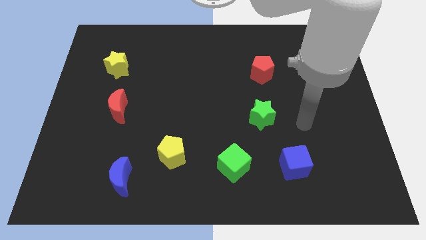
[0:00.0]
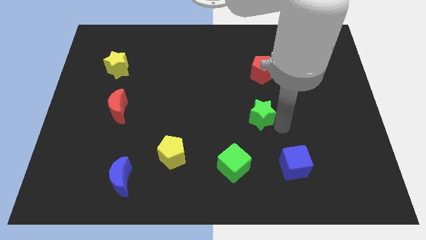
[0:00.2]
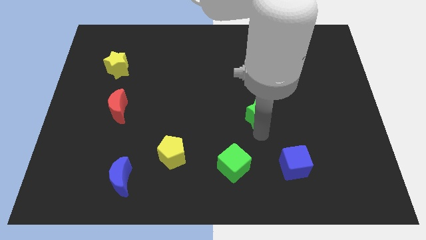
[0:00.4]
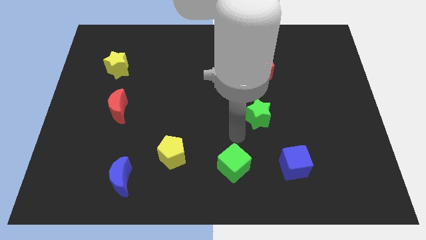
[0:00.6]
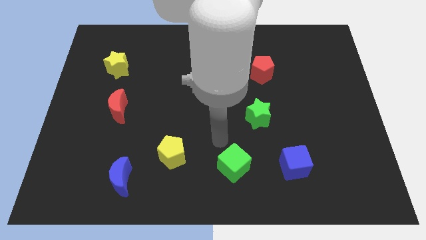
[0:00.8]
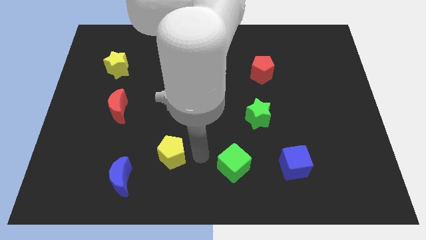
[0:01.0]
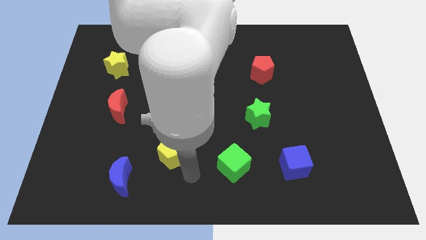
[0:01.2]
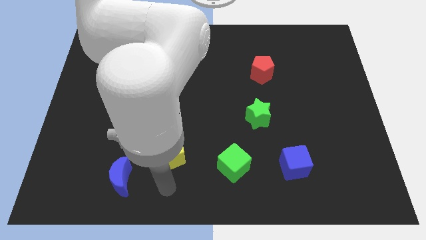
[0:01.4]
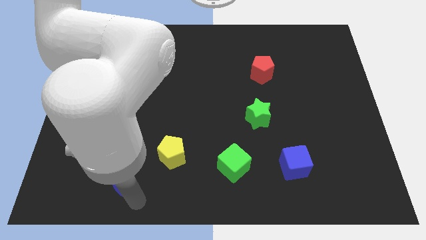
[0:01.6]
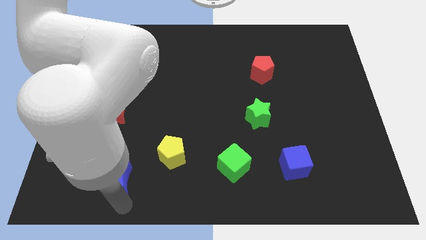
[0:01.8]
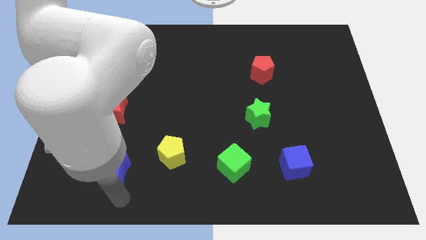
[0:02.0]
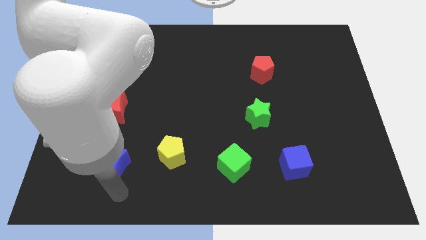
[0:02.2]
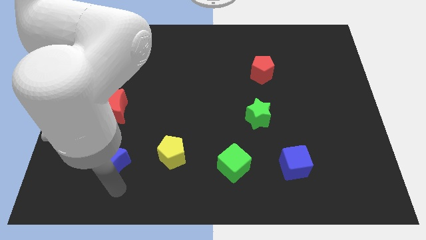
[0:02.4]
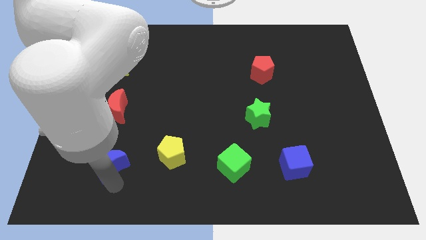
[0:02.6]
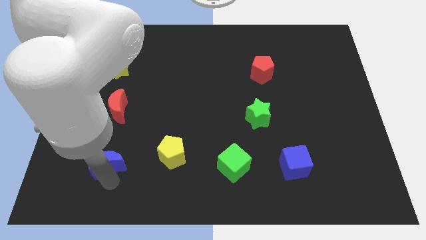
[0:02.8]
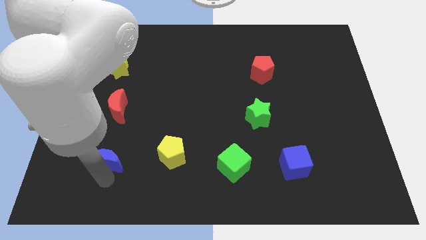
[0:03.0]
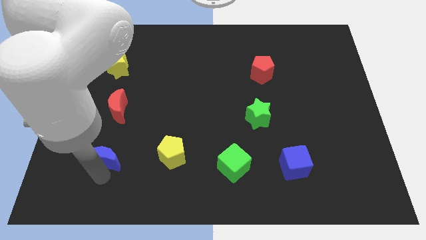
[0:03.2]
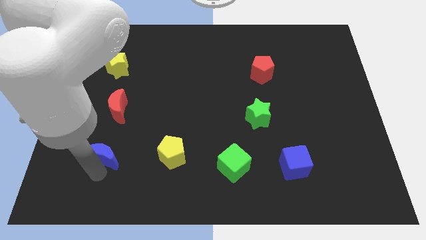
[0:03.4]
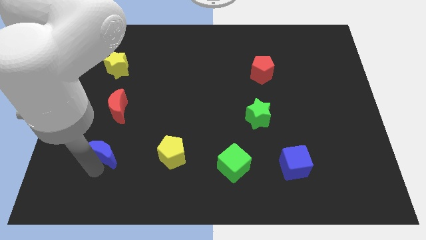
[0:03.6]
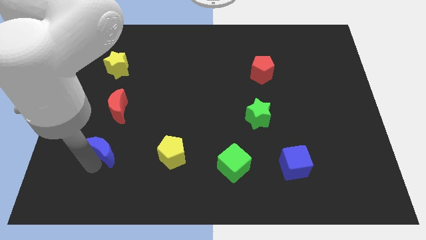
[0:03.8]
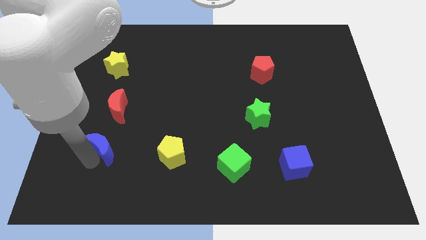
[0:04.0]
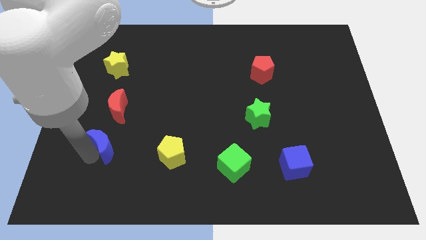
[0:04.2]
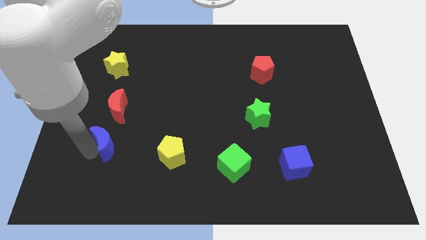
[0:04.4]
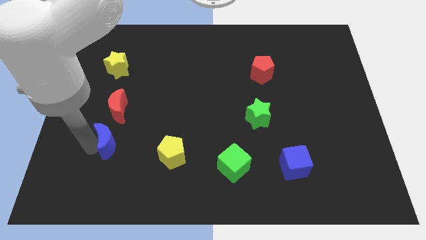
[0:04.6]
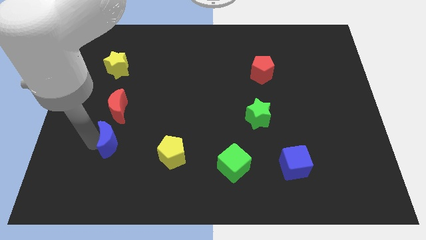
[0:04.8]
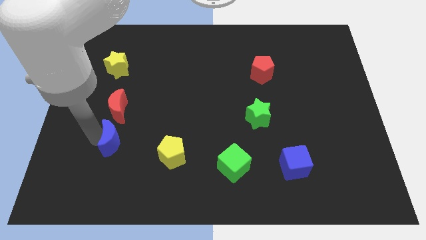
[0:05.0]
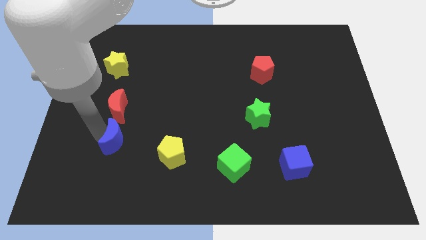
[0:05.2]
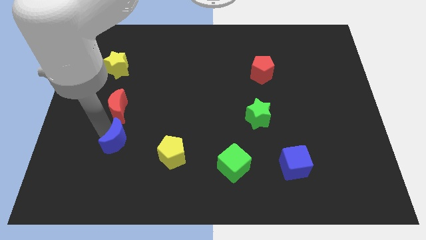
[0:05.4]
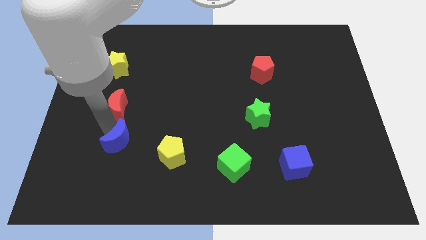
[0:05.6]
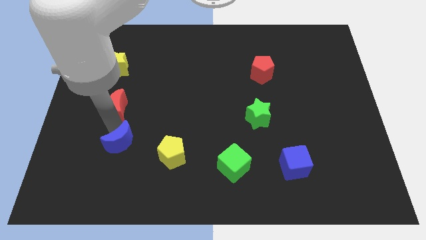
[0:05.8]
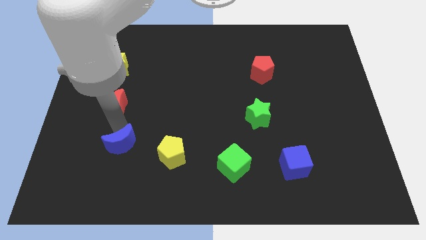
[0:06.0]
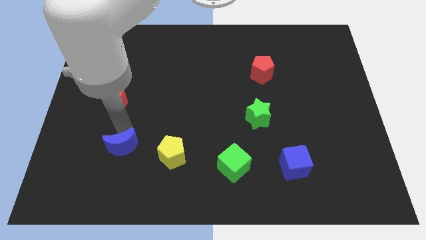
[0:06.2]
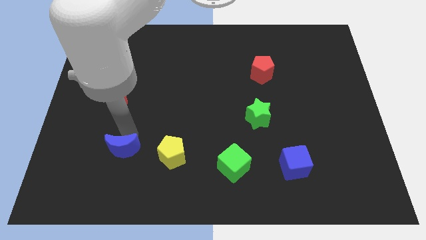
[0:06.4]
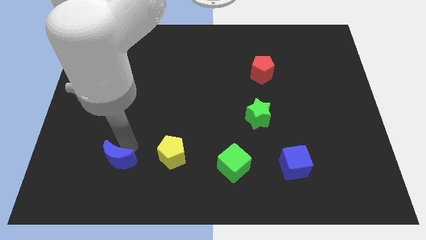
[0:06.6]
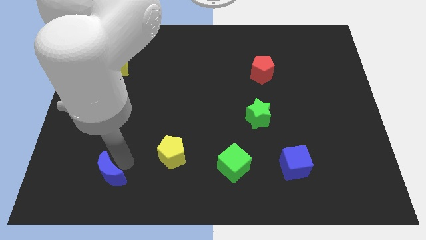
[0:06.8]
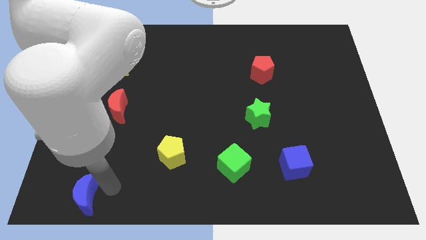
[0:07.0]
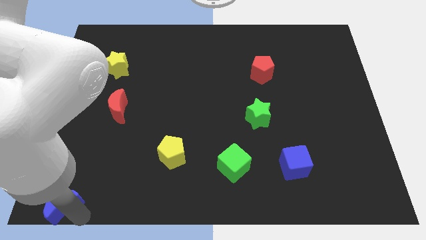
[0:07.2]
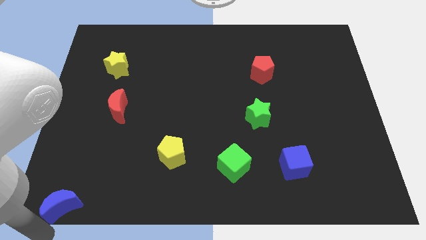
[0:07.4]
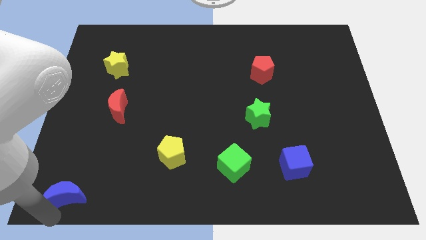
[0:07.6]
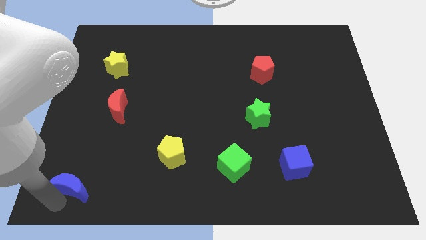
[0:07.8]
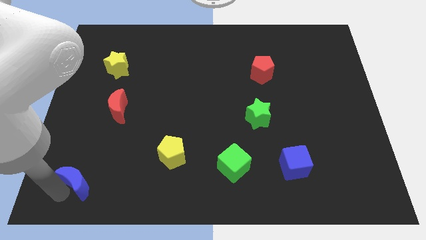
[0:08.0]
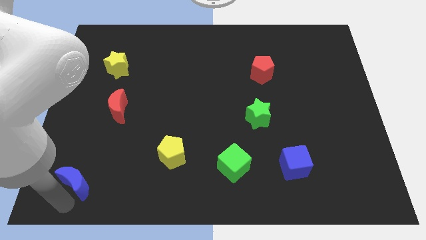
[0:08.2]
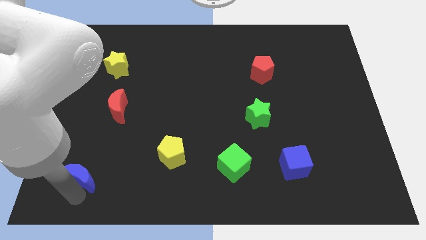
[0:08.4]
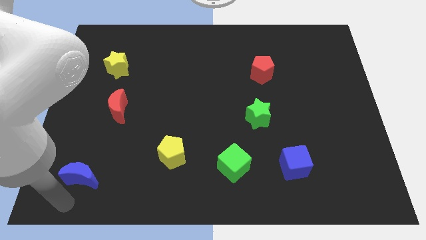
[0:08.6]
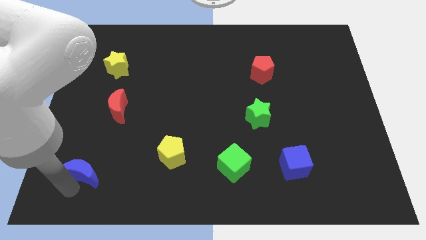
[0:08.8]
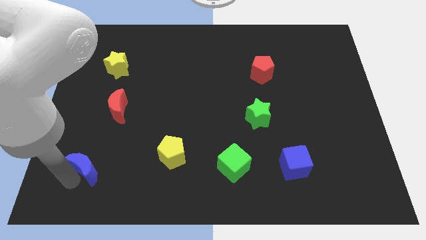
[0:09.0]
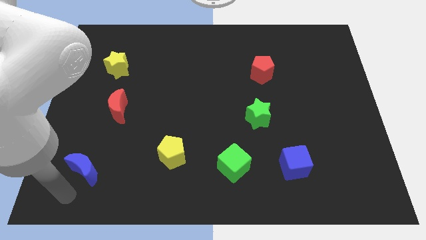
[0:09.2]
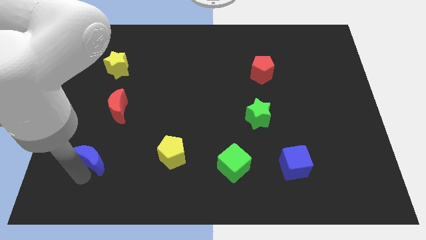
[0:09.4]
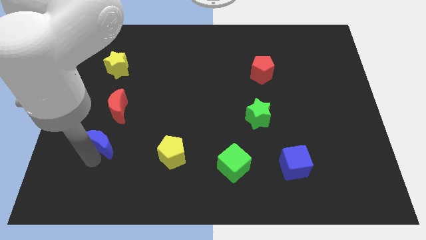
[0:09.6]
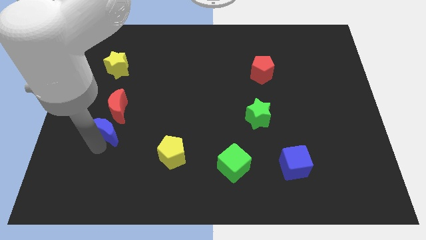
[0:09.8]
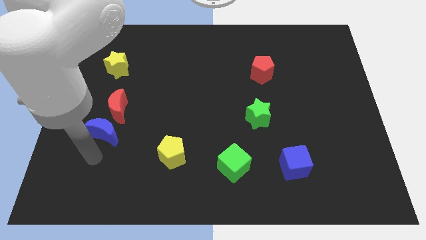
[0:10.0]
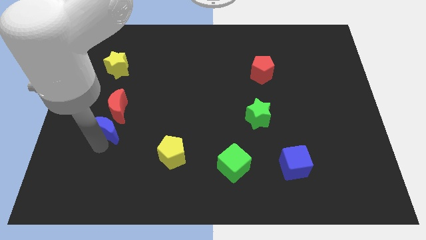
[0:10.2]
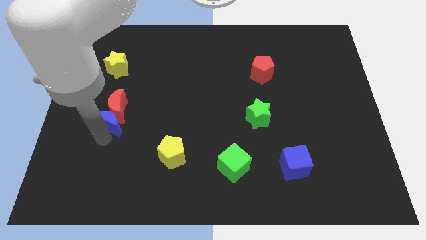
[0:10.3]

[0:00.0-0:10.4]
slide the blue moon towards the red moon

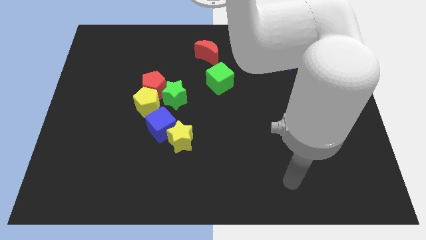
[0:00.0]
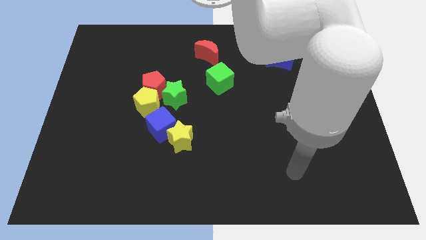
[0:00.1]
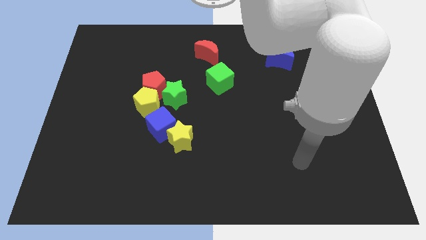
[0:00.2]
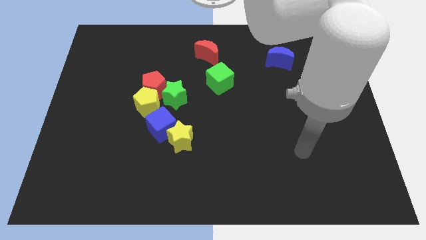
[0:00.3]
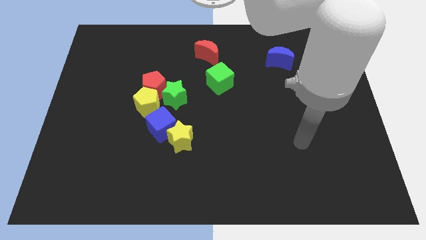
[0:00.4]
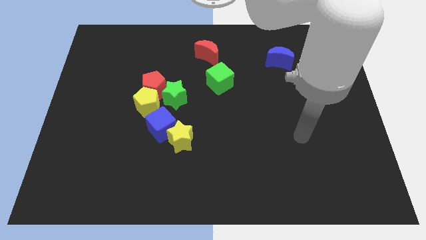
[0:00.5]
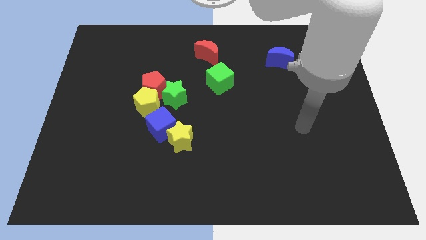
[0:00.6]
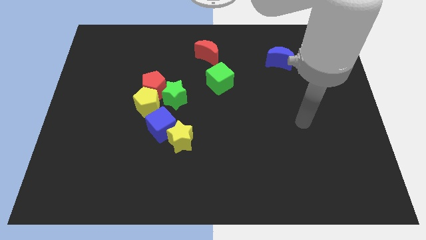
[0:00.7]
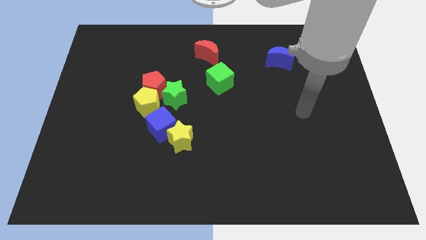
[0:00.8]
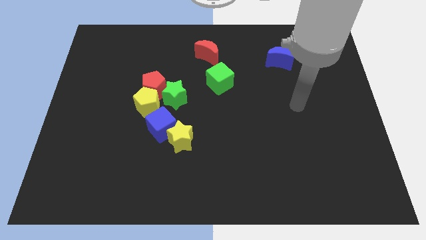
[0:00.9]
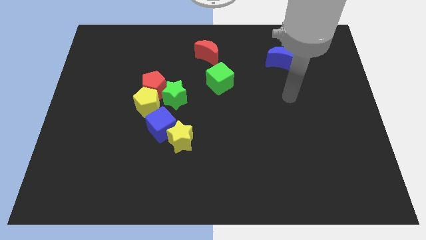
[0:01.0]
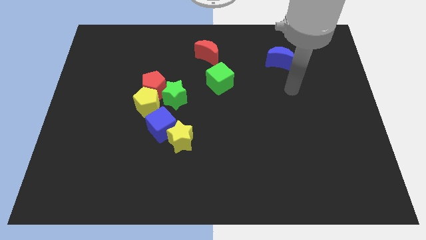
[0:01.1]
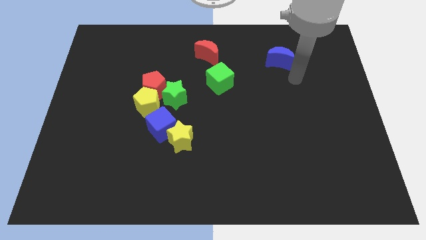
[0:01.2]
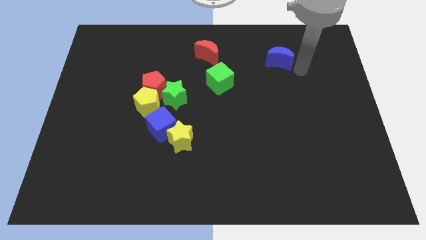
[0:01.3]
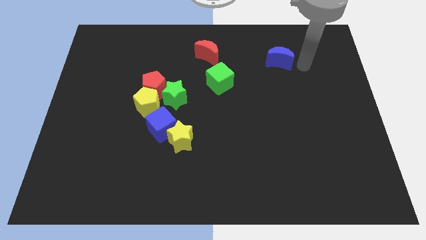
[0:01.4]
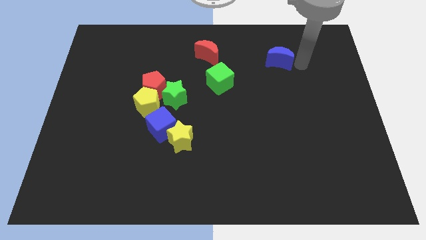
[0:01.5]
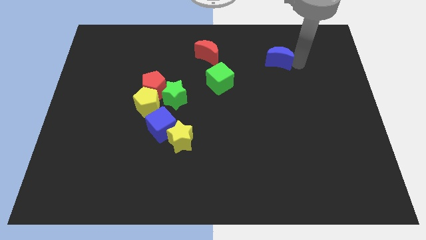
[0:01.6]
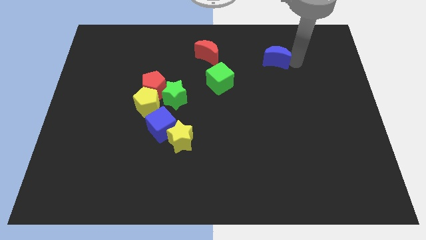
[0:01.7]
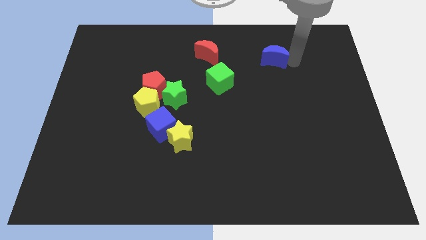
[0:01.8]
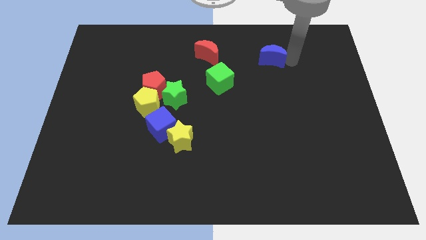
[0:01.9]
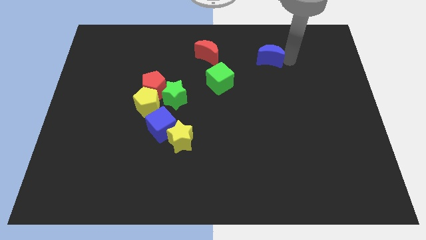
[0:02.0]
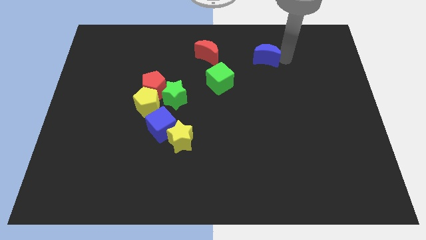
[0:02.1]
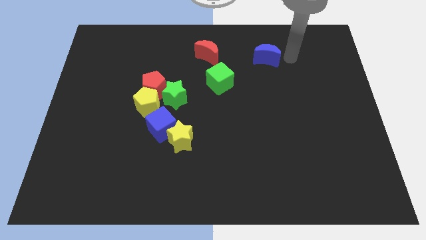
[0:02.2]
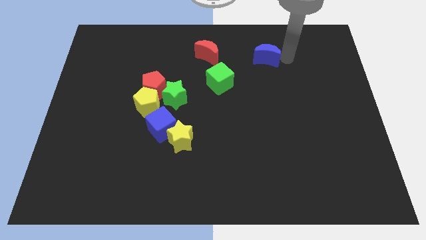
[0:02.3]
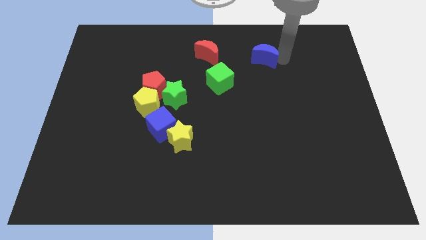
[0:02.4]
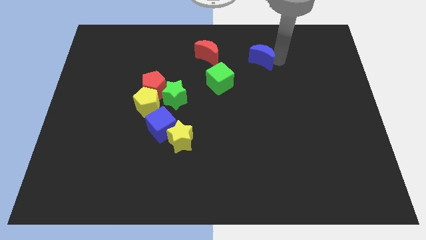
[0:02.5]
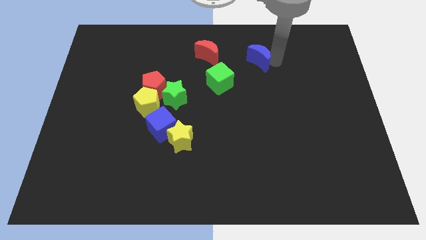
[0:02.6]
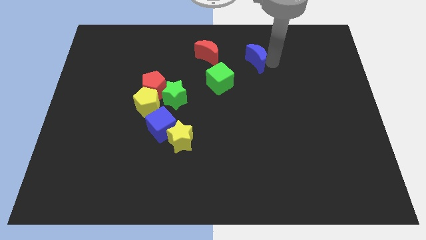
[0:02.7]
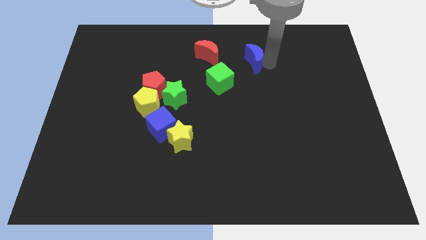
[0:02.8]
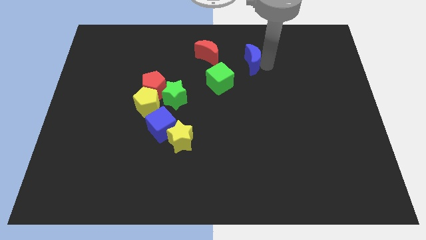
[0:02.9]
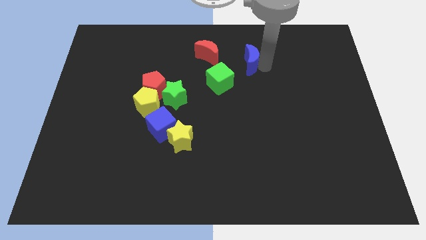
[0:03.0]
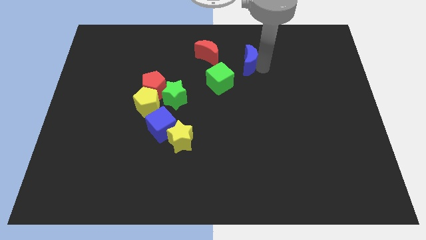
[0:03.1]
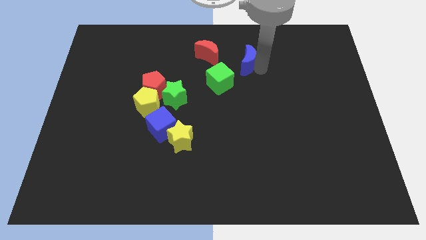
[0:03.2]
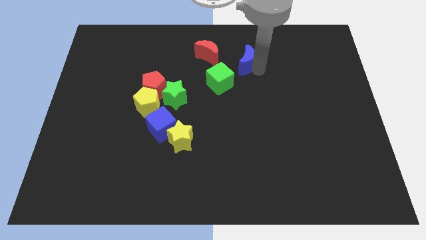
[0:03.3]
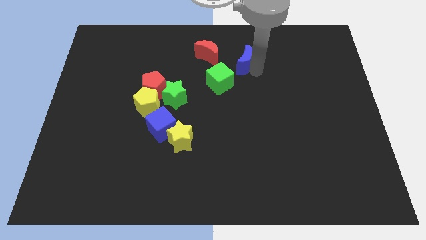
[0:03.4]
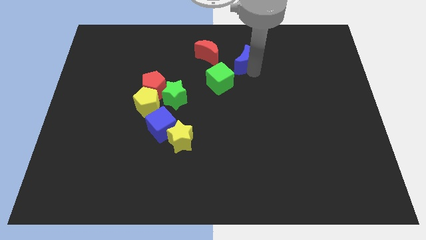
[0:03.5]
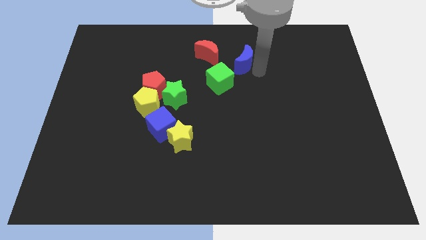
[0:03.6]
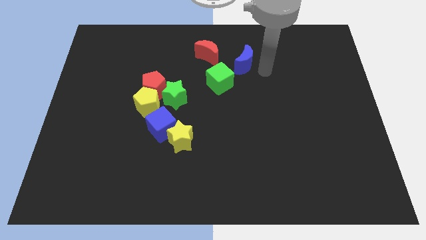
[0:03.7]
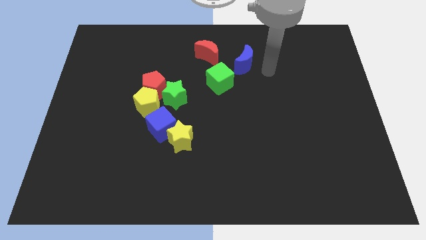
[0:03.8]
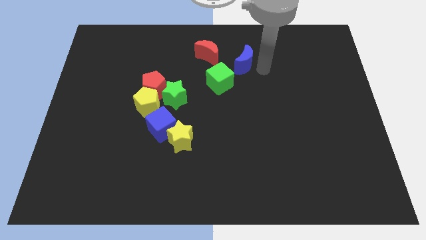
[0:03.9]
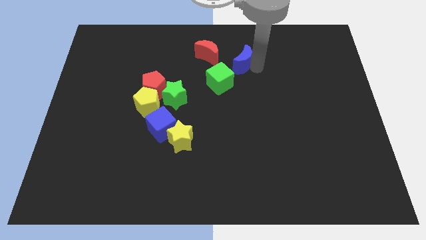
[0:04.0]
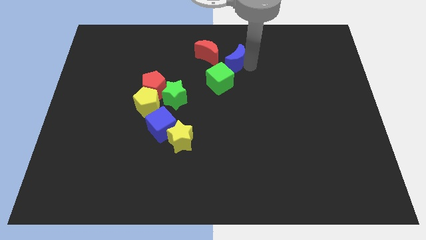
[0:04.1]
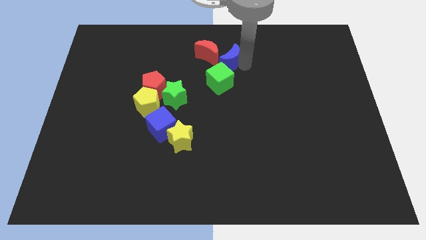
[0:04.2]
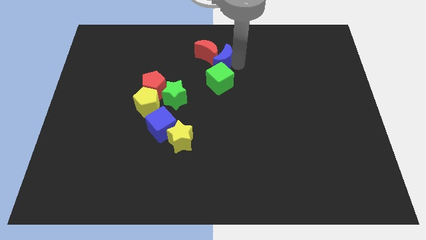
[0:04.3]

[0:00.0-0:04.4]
push the blue moon towards the red moon
